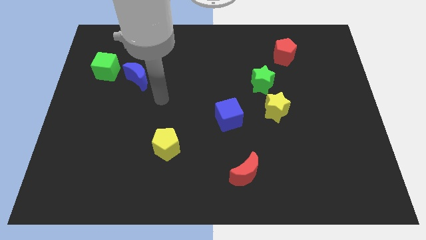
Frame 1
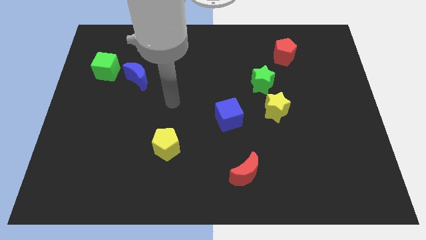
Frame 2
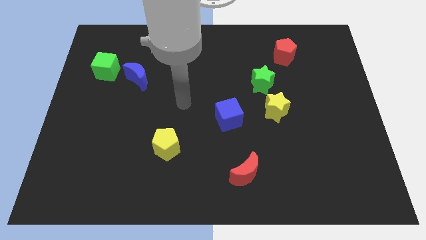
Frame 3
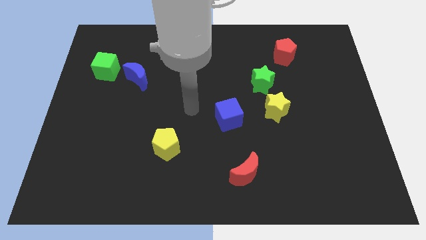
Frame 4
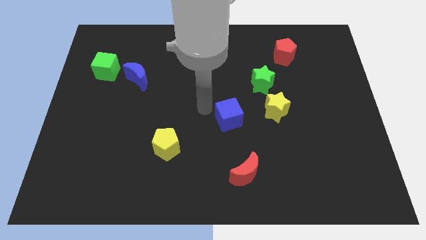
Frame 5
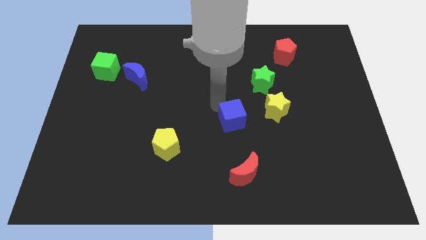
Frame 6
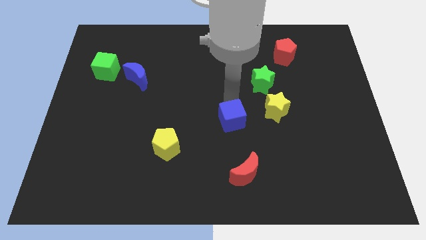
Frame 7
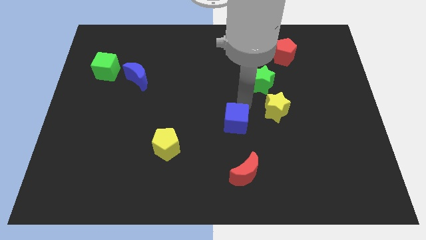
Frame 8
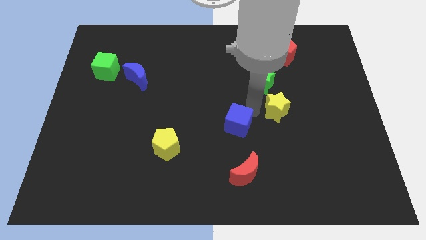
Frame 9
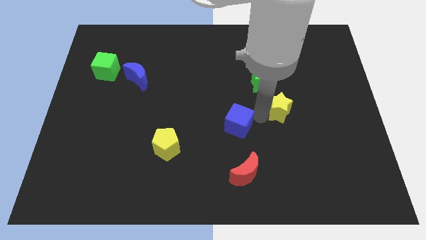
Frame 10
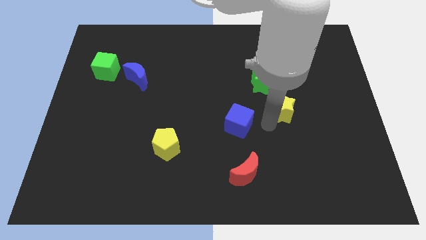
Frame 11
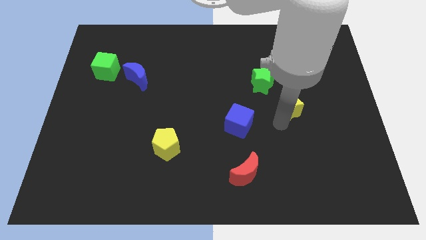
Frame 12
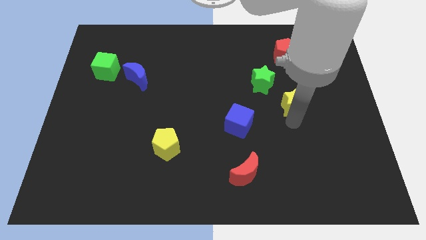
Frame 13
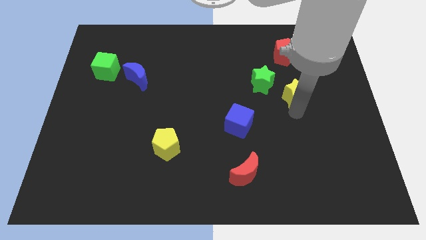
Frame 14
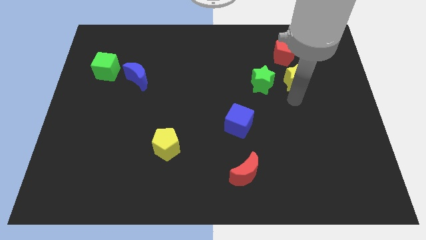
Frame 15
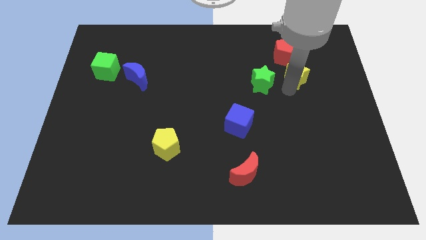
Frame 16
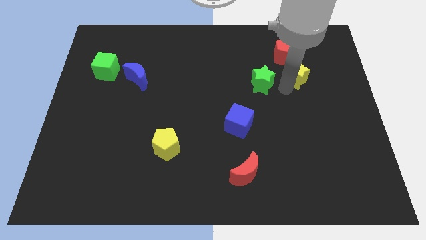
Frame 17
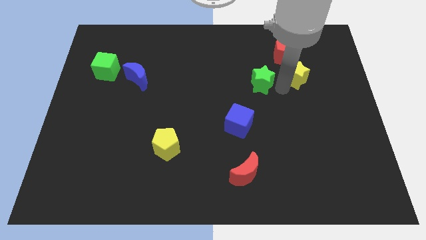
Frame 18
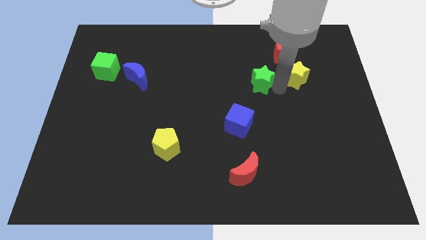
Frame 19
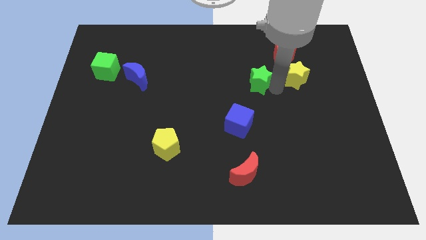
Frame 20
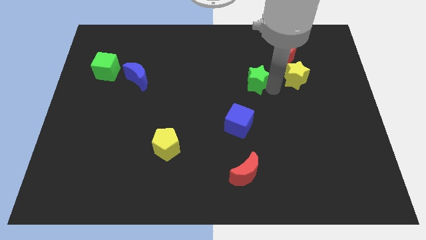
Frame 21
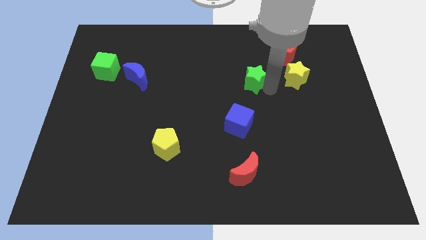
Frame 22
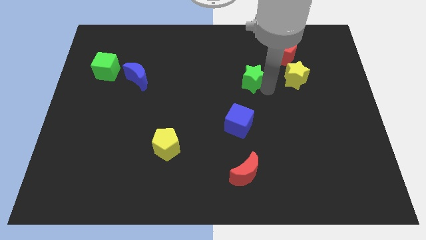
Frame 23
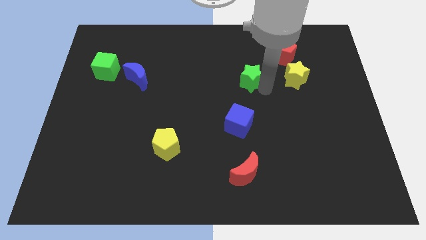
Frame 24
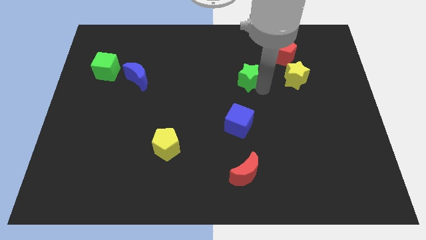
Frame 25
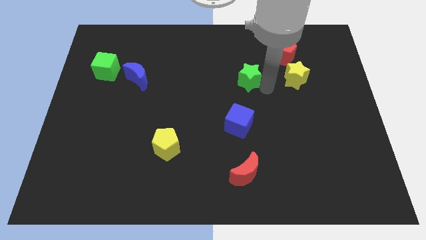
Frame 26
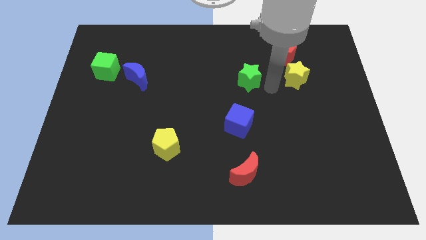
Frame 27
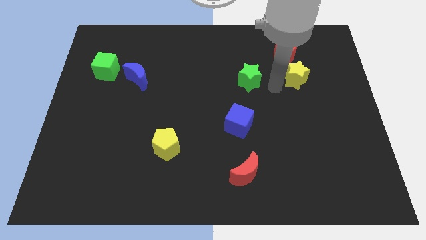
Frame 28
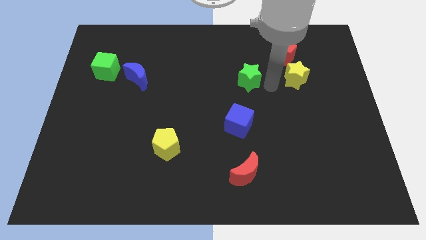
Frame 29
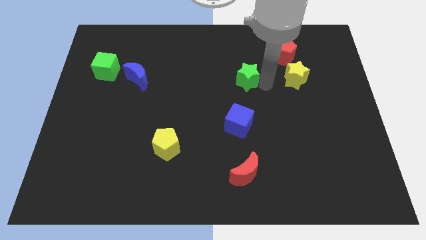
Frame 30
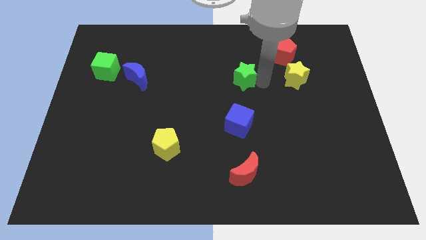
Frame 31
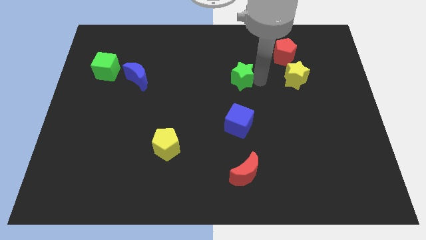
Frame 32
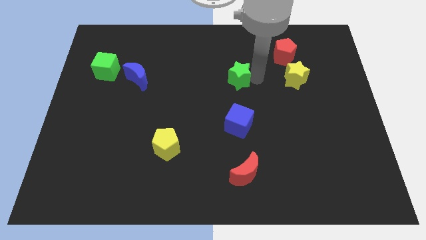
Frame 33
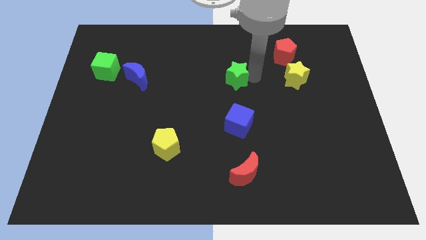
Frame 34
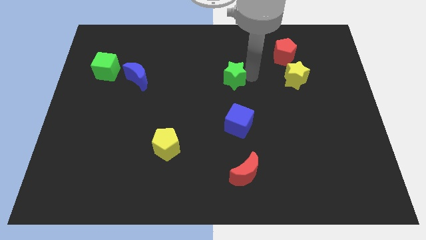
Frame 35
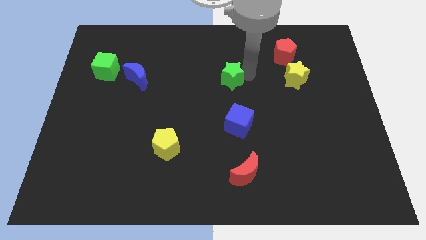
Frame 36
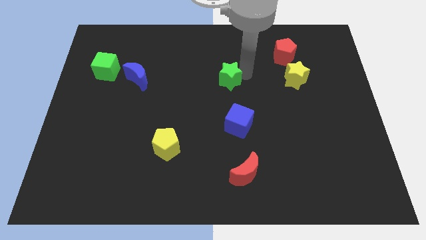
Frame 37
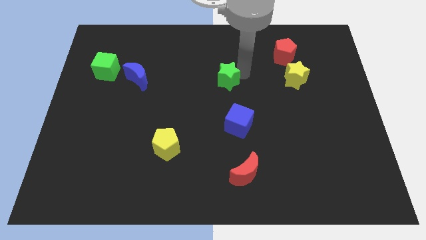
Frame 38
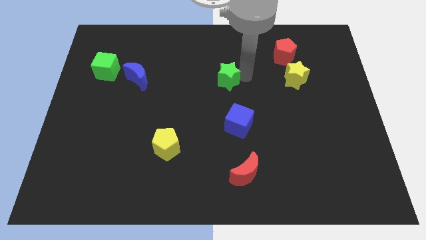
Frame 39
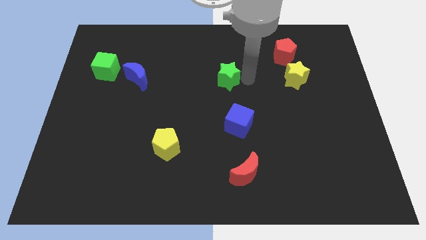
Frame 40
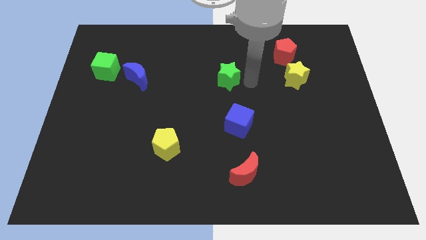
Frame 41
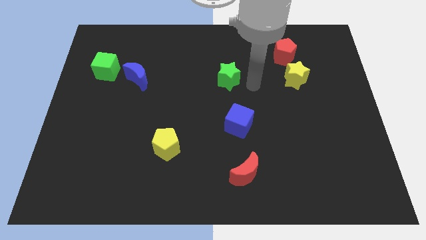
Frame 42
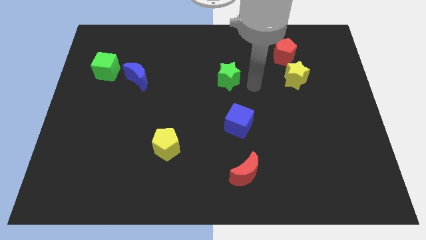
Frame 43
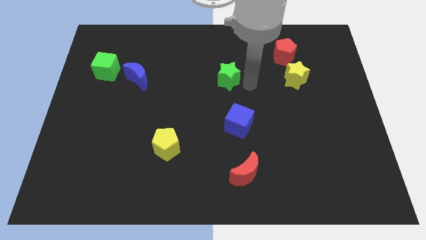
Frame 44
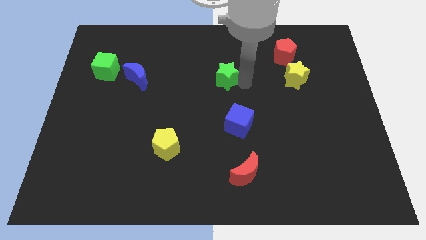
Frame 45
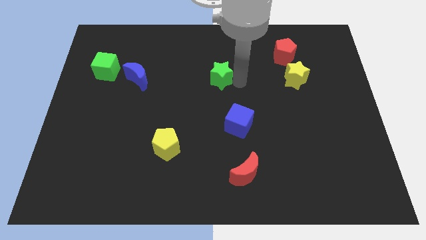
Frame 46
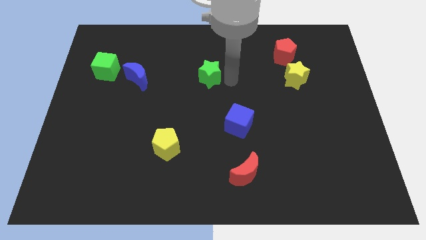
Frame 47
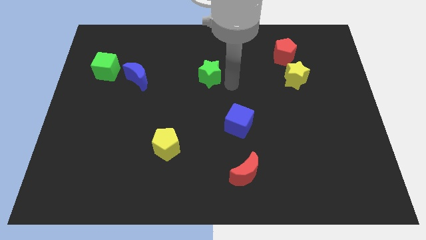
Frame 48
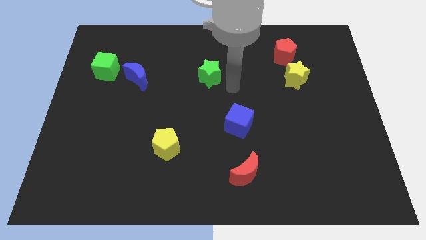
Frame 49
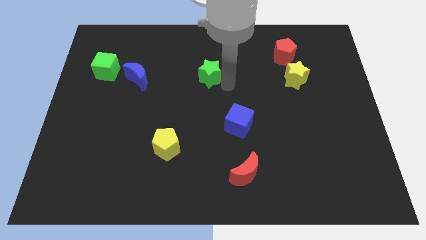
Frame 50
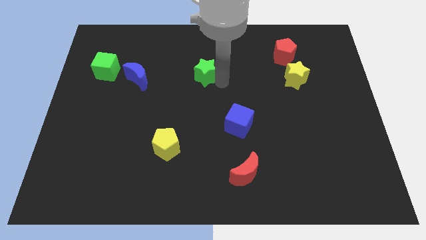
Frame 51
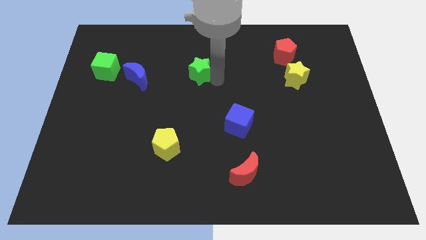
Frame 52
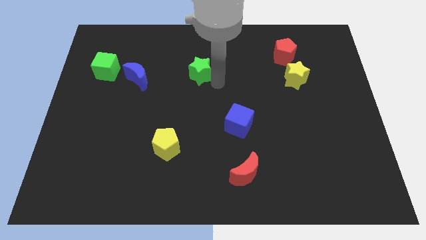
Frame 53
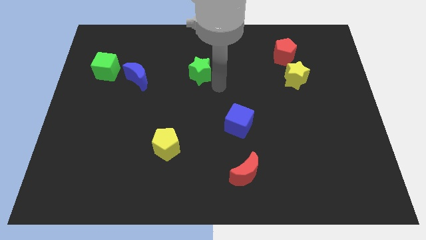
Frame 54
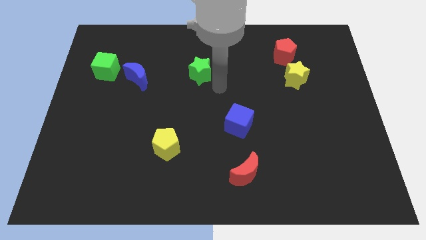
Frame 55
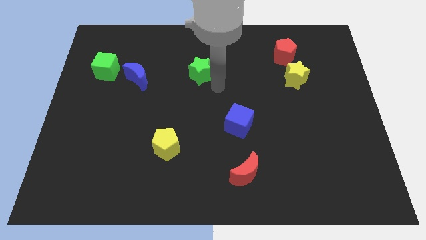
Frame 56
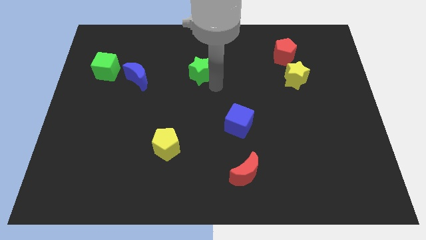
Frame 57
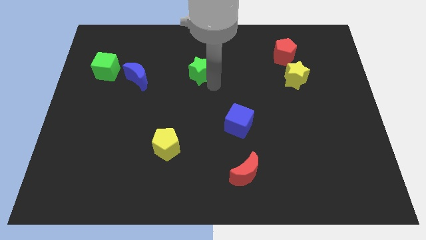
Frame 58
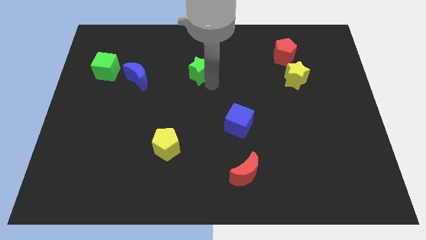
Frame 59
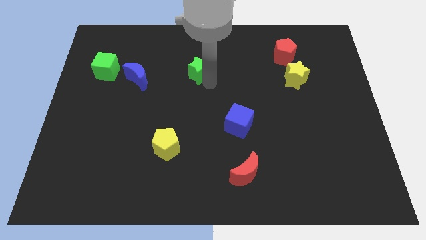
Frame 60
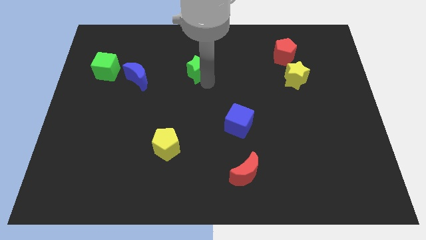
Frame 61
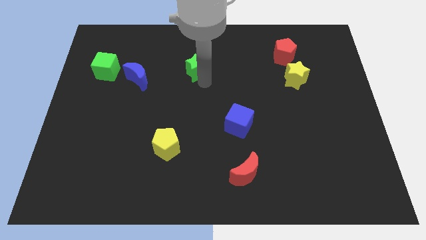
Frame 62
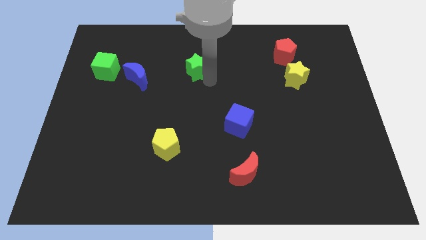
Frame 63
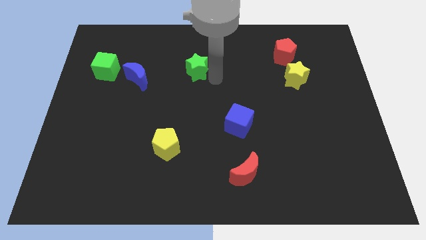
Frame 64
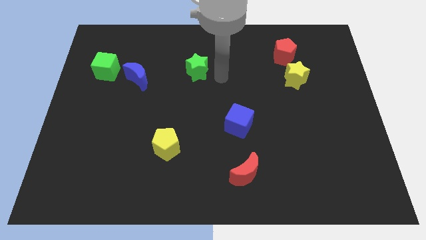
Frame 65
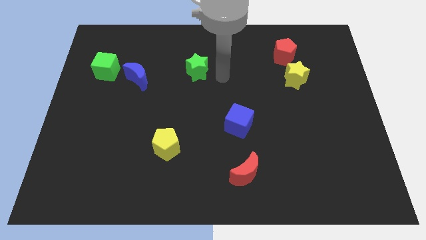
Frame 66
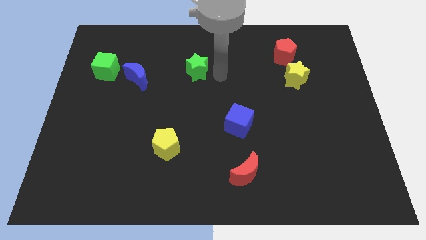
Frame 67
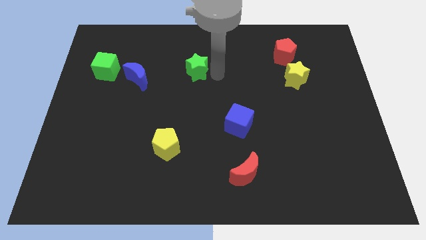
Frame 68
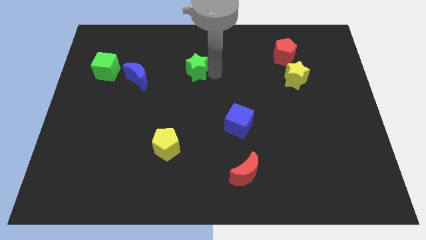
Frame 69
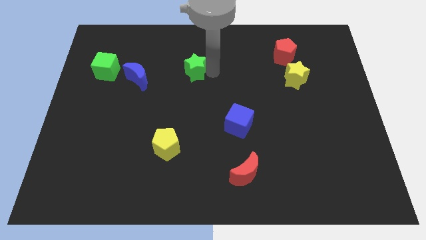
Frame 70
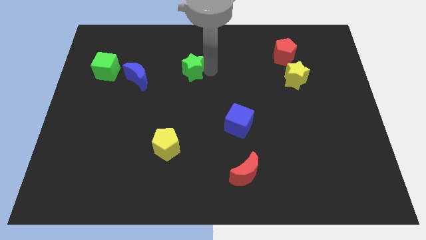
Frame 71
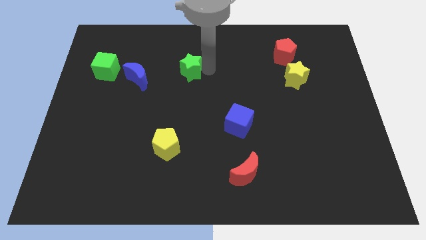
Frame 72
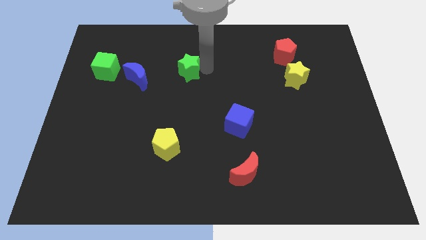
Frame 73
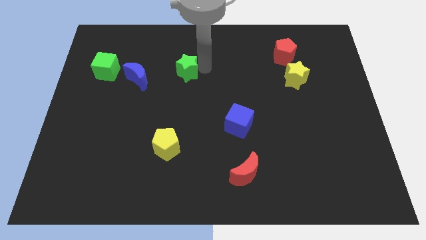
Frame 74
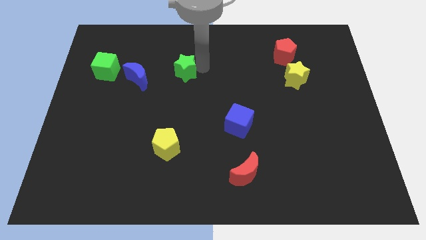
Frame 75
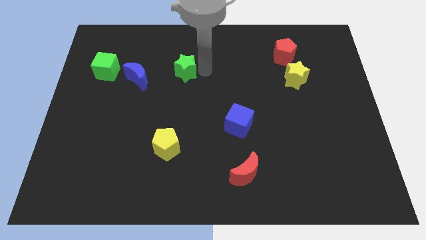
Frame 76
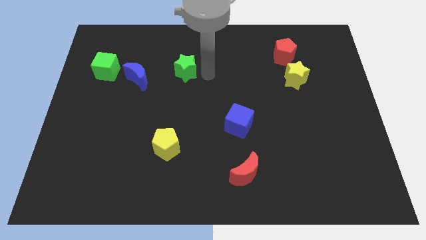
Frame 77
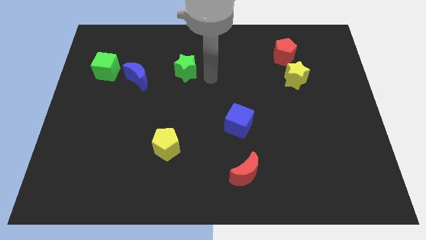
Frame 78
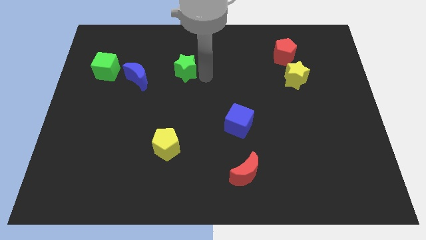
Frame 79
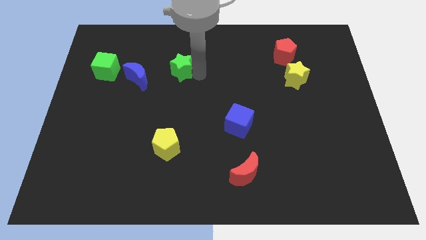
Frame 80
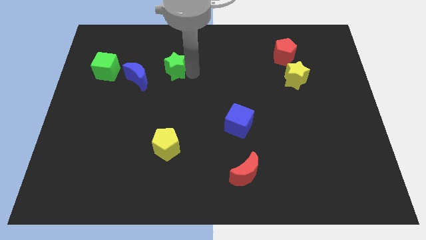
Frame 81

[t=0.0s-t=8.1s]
slide the green star diagonally up and to the right of the blue moon
